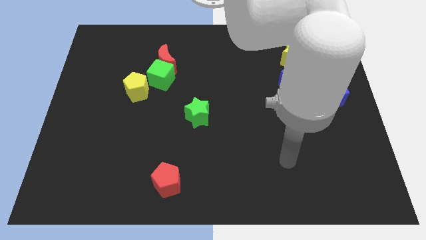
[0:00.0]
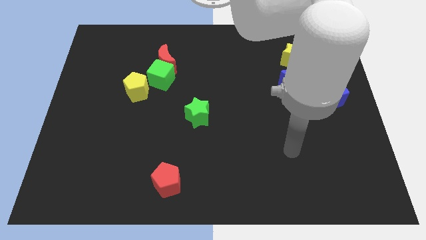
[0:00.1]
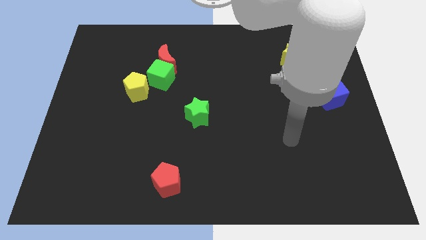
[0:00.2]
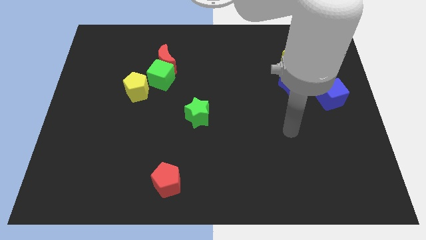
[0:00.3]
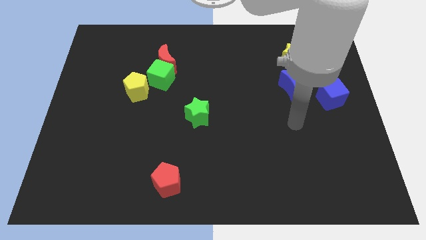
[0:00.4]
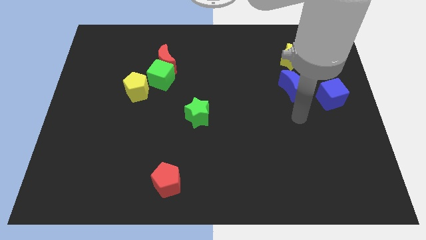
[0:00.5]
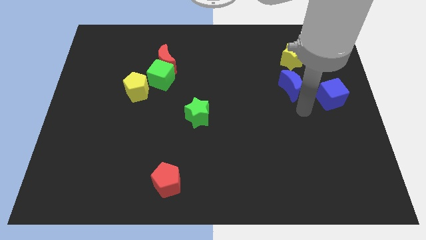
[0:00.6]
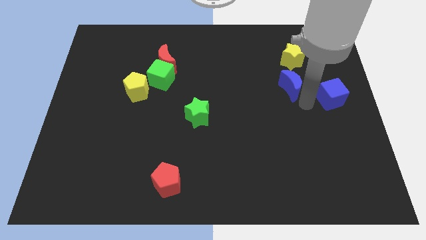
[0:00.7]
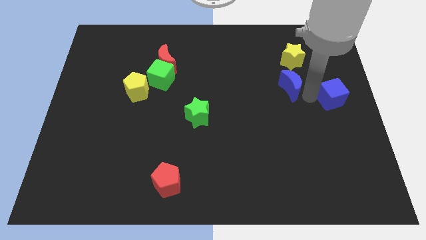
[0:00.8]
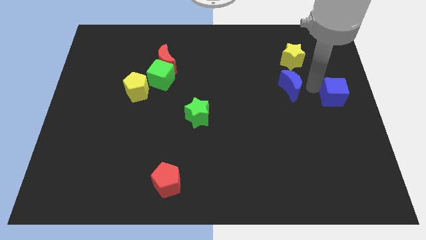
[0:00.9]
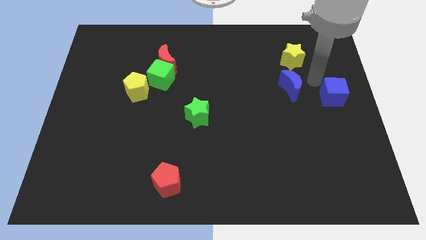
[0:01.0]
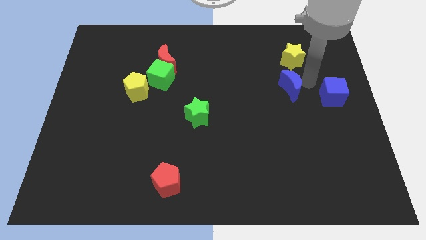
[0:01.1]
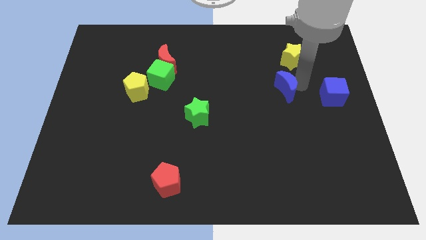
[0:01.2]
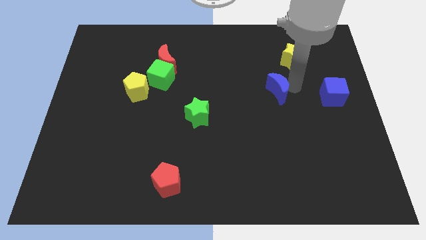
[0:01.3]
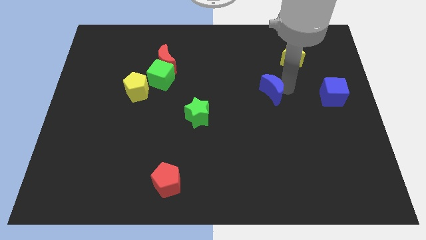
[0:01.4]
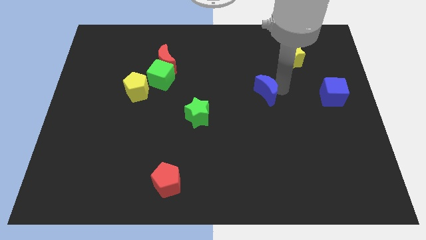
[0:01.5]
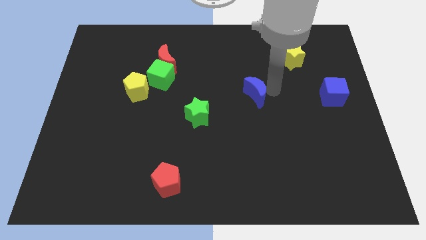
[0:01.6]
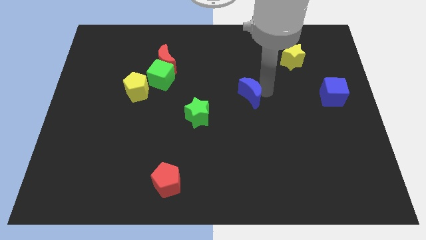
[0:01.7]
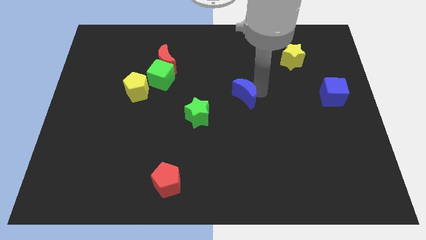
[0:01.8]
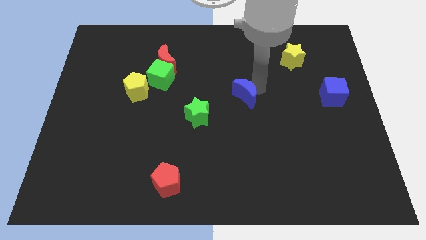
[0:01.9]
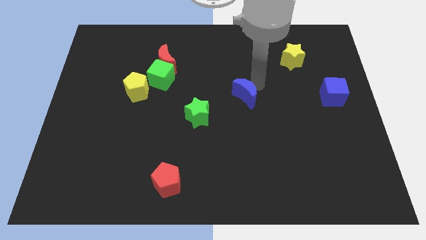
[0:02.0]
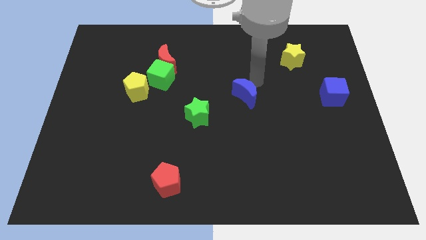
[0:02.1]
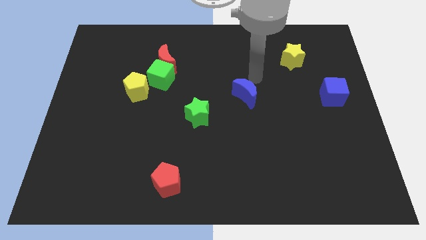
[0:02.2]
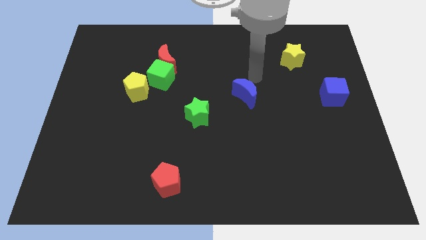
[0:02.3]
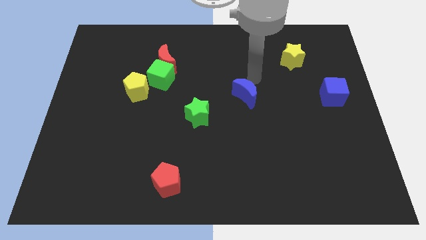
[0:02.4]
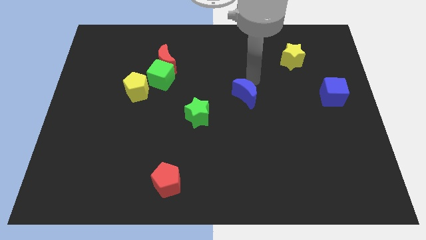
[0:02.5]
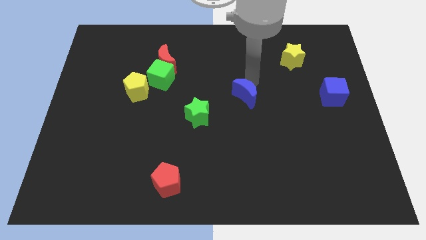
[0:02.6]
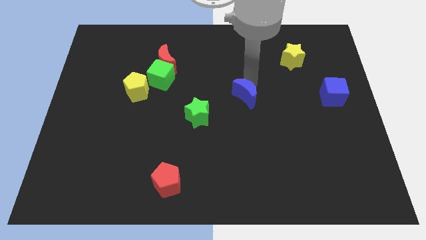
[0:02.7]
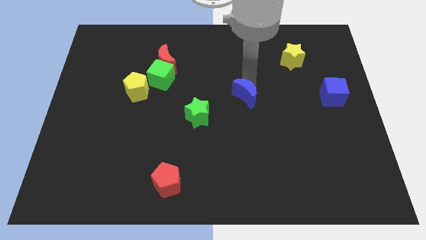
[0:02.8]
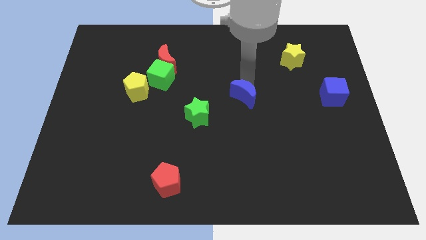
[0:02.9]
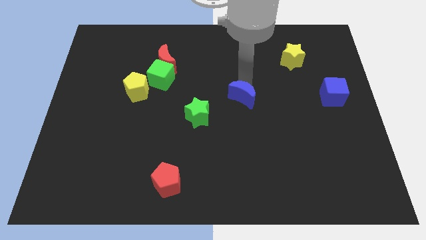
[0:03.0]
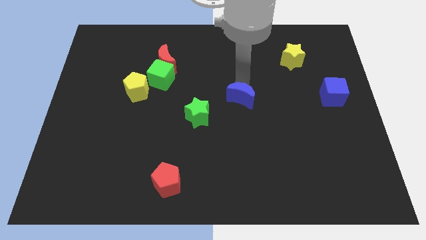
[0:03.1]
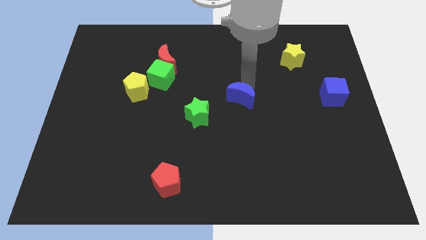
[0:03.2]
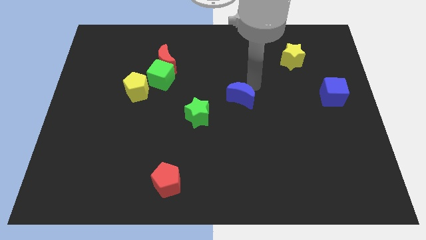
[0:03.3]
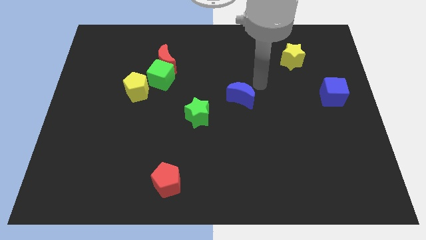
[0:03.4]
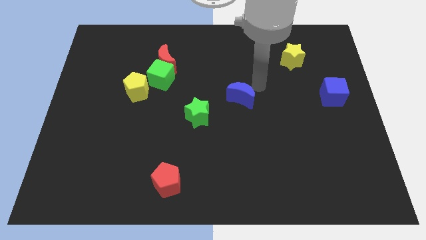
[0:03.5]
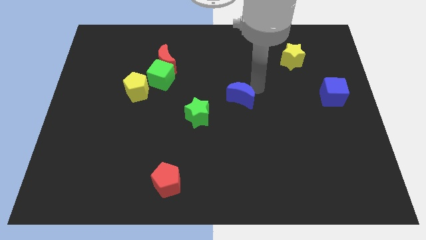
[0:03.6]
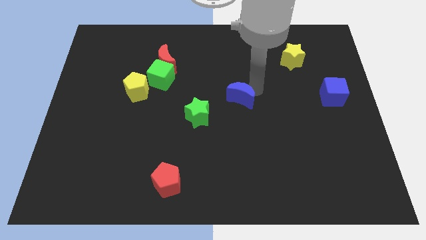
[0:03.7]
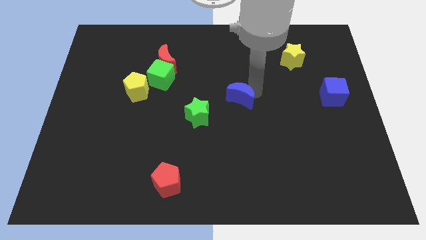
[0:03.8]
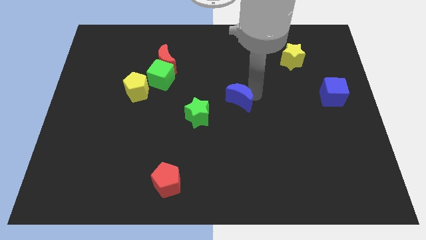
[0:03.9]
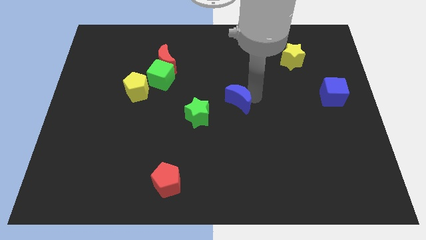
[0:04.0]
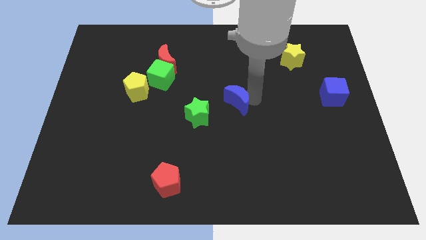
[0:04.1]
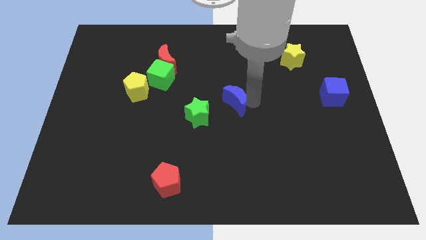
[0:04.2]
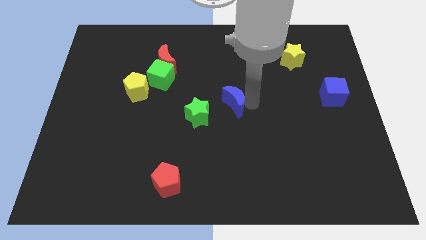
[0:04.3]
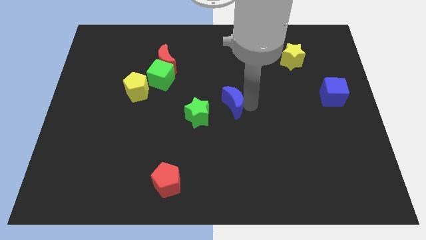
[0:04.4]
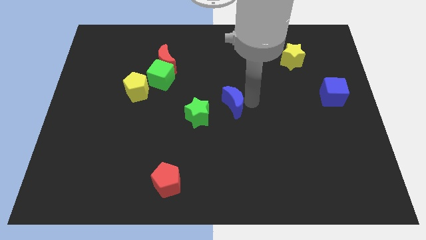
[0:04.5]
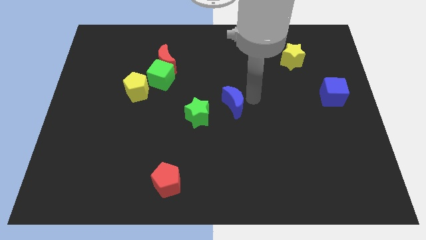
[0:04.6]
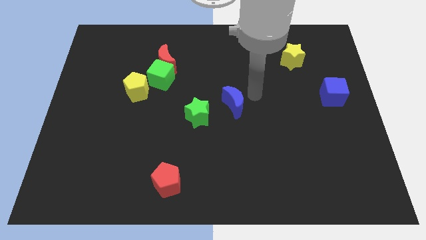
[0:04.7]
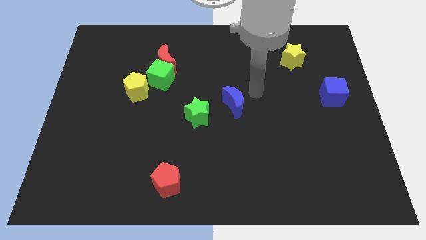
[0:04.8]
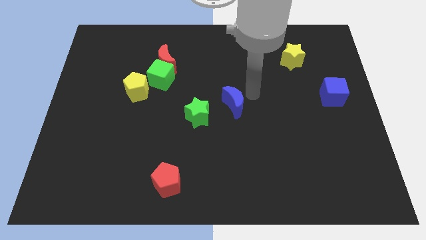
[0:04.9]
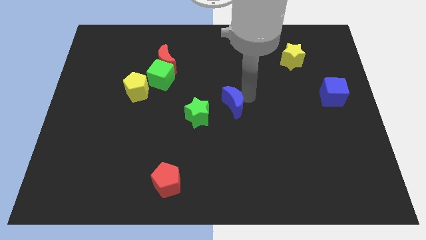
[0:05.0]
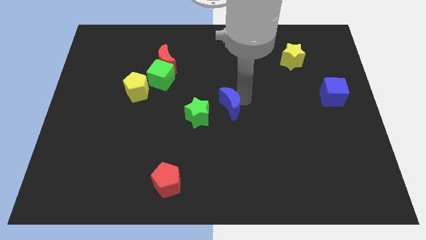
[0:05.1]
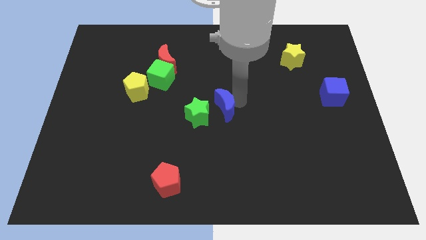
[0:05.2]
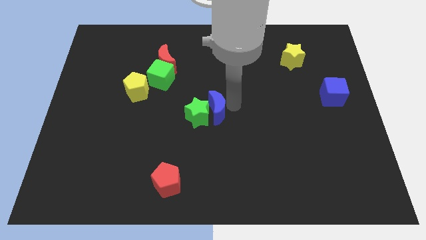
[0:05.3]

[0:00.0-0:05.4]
move the blue moon to the green star

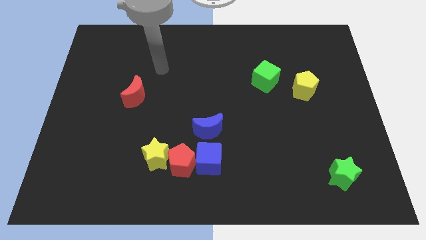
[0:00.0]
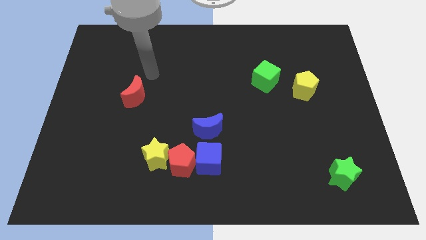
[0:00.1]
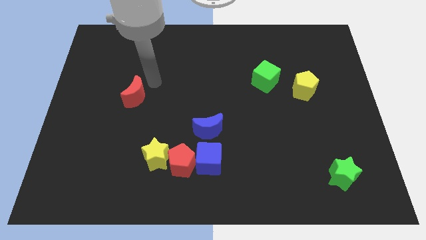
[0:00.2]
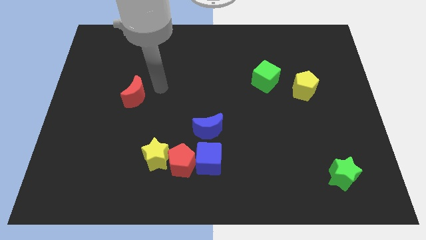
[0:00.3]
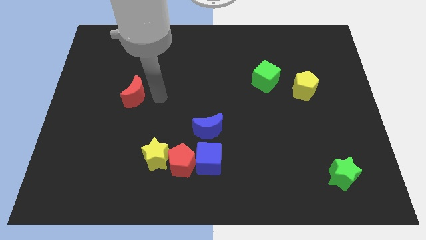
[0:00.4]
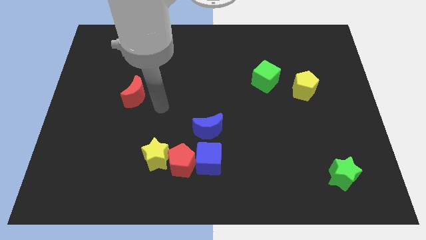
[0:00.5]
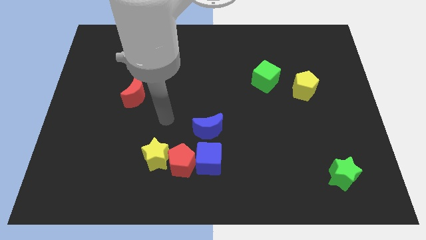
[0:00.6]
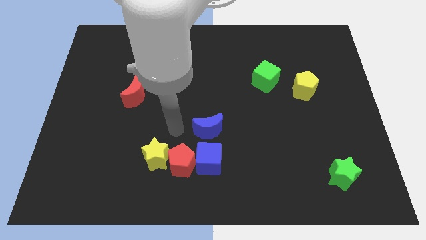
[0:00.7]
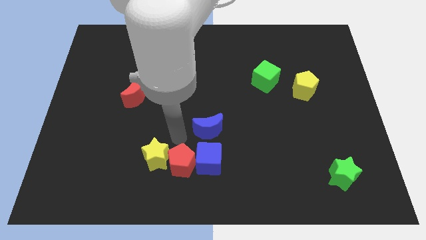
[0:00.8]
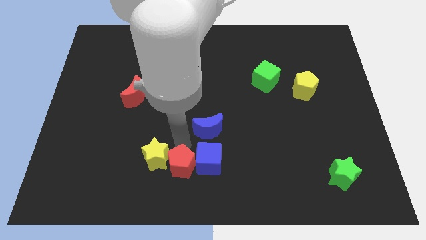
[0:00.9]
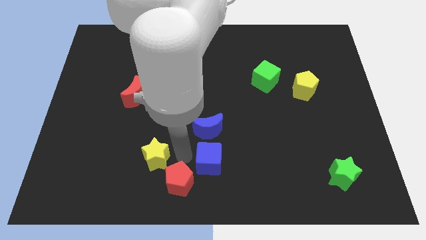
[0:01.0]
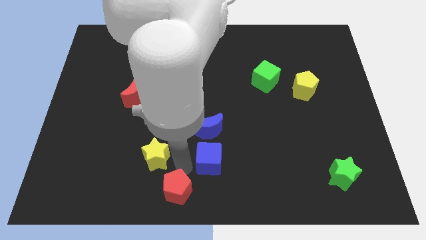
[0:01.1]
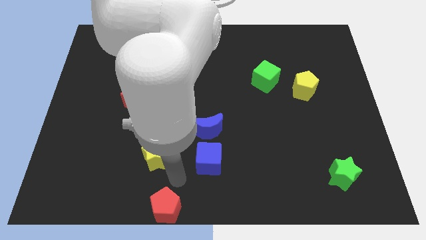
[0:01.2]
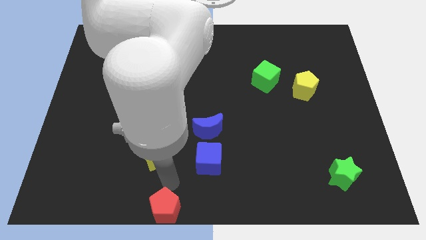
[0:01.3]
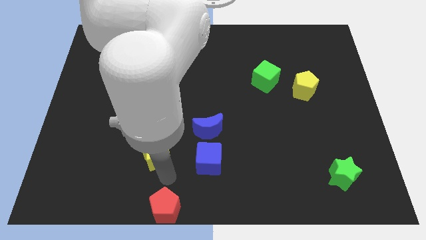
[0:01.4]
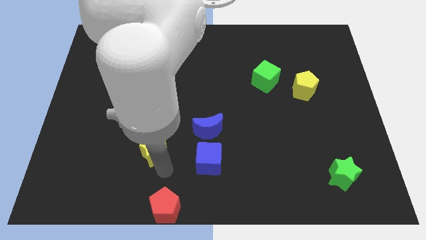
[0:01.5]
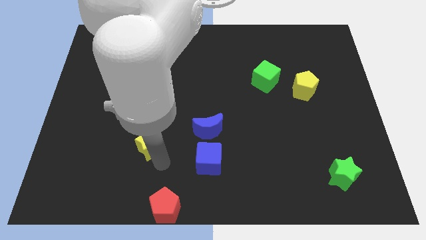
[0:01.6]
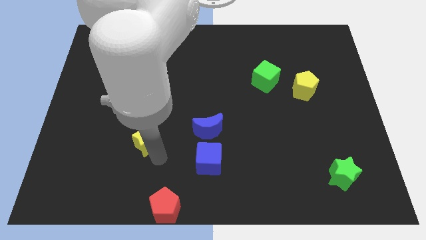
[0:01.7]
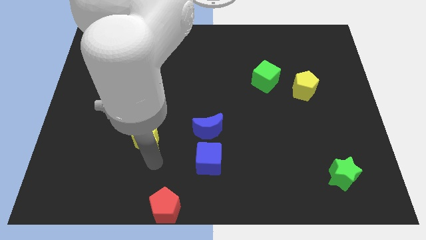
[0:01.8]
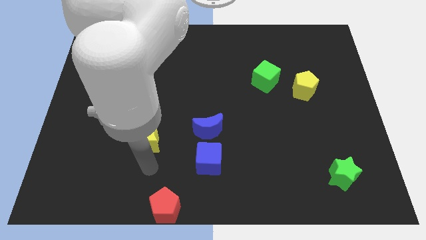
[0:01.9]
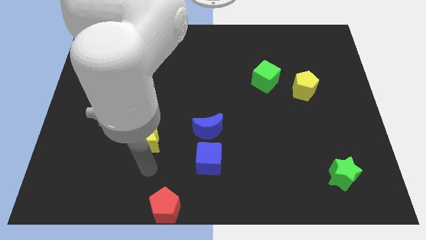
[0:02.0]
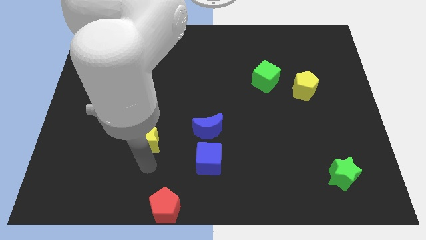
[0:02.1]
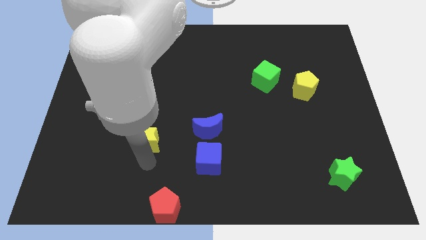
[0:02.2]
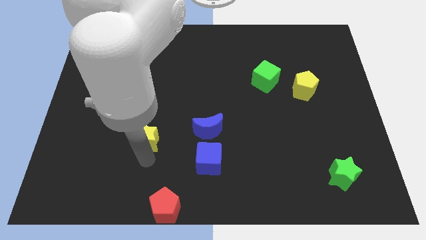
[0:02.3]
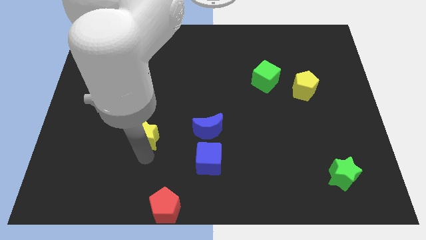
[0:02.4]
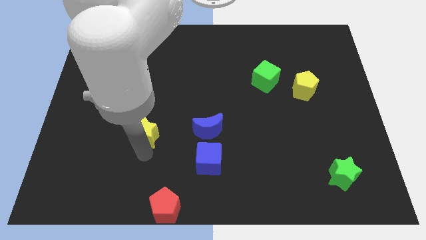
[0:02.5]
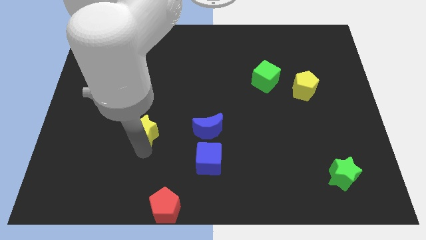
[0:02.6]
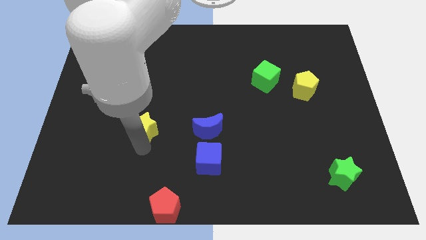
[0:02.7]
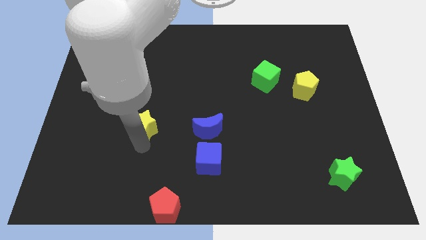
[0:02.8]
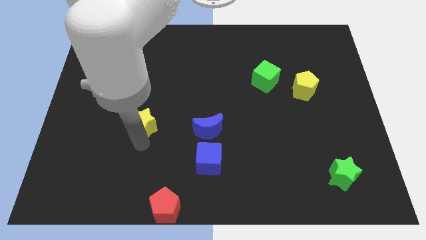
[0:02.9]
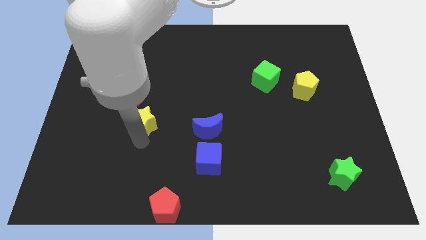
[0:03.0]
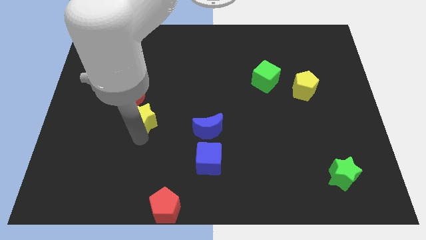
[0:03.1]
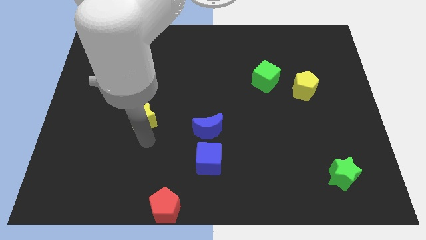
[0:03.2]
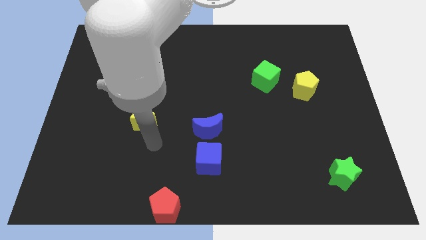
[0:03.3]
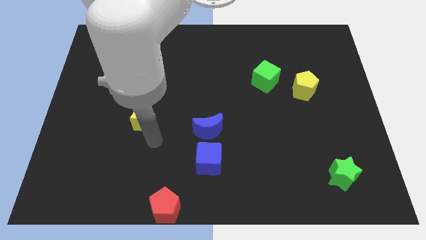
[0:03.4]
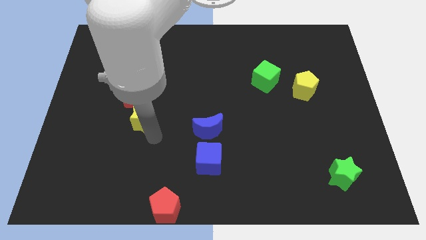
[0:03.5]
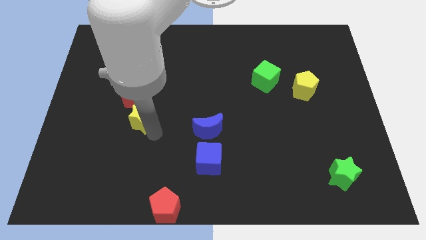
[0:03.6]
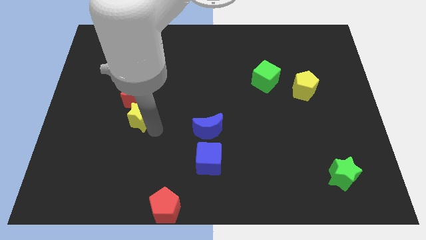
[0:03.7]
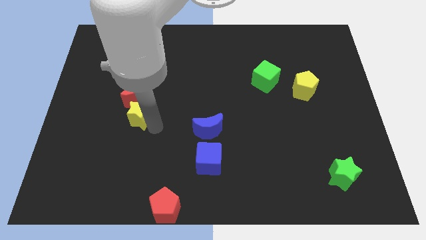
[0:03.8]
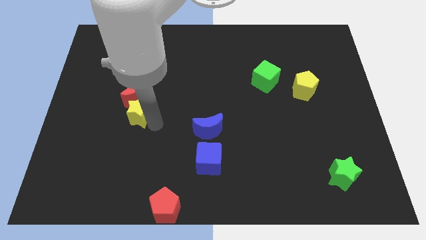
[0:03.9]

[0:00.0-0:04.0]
push the yellow star towards the red moon
